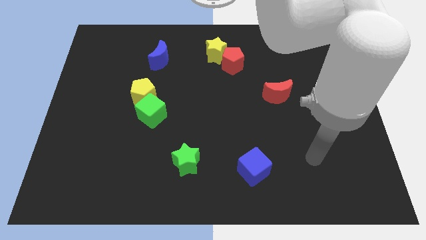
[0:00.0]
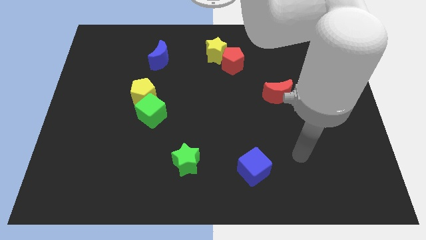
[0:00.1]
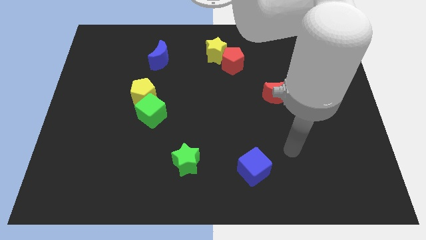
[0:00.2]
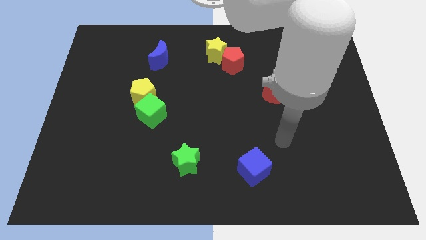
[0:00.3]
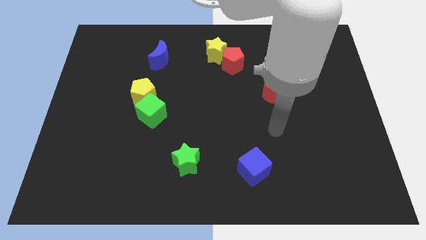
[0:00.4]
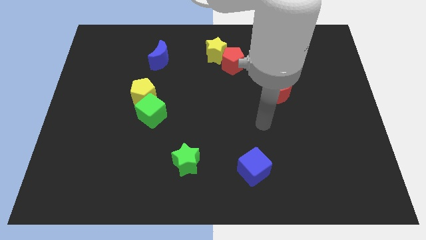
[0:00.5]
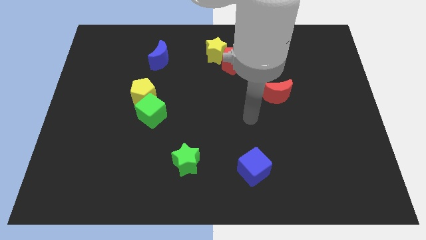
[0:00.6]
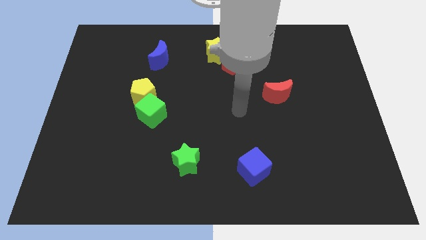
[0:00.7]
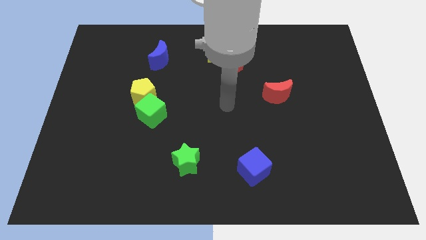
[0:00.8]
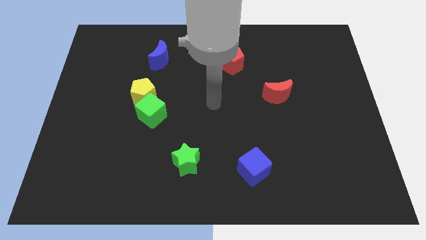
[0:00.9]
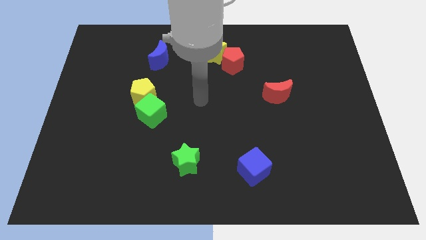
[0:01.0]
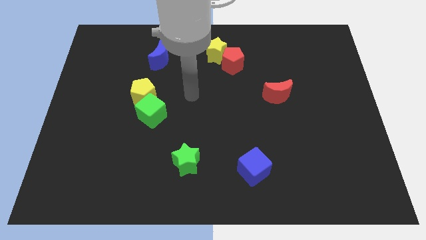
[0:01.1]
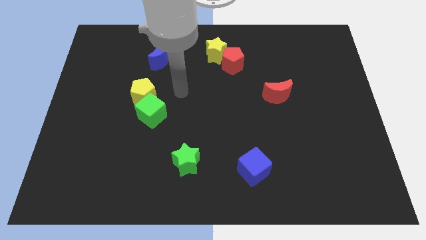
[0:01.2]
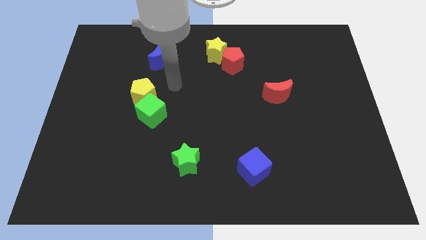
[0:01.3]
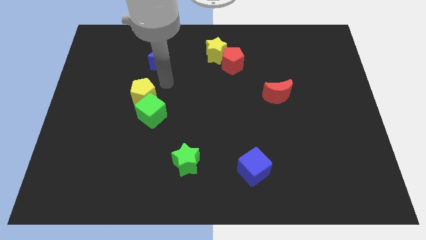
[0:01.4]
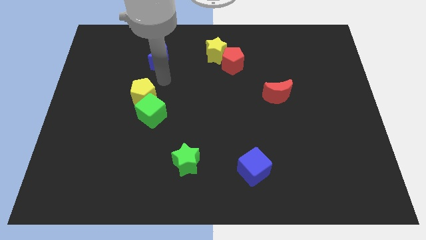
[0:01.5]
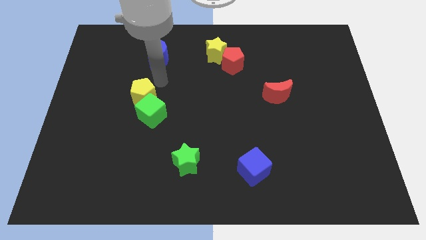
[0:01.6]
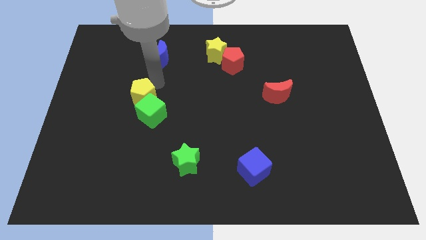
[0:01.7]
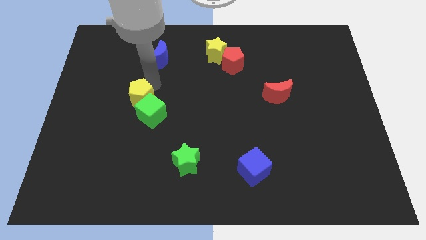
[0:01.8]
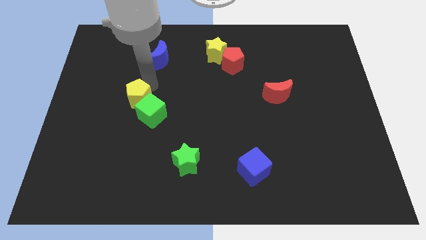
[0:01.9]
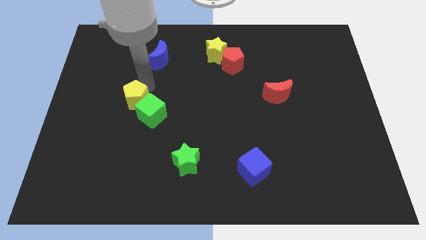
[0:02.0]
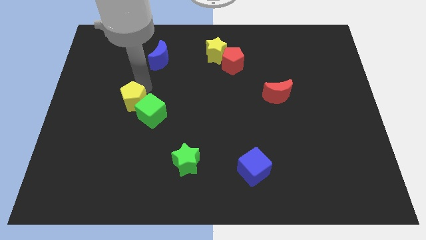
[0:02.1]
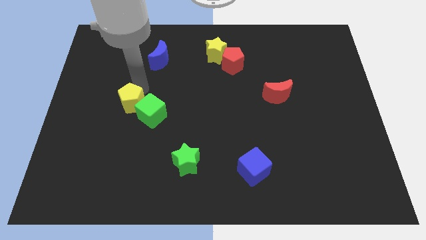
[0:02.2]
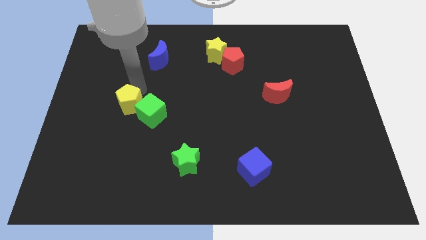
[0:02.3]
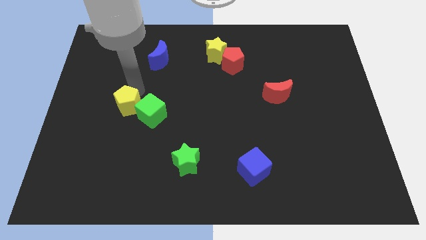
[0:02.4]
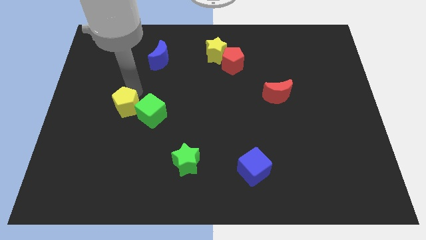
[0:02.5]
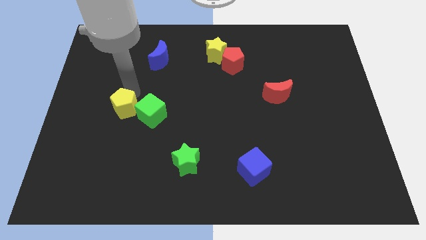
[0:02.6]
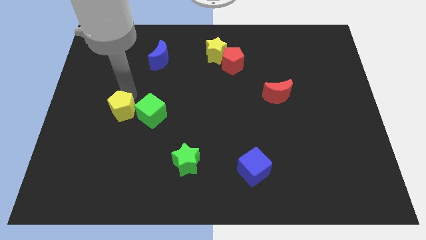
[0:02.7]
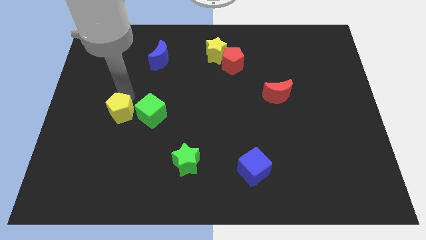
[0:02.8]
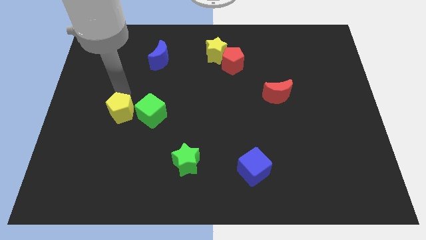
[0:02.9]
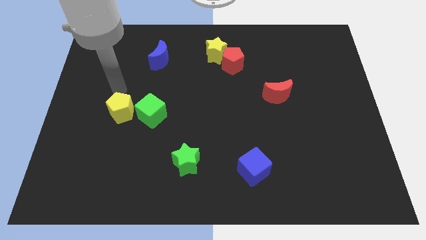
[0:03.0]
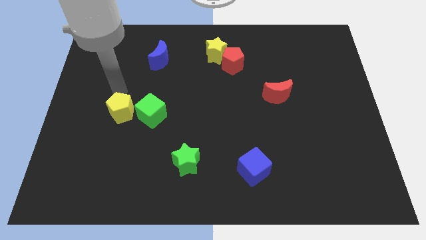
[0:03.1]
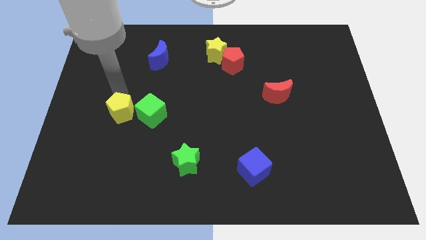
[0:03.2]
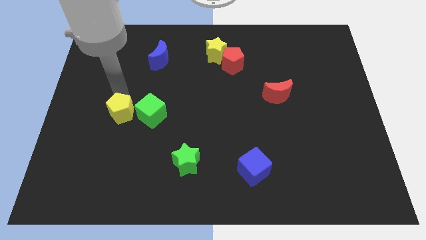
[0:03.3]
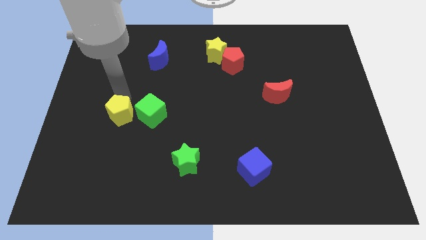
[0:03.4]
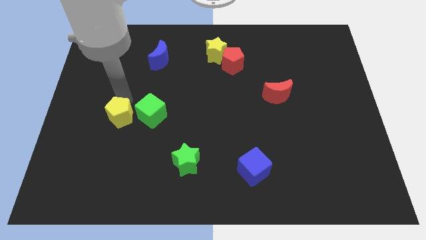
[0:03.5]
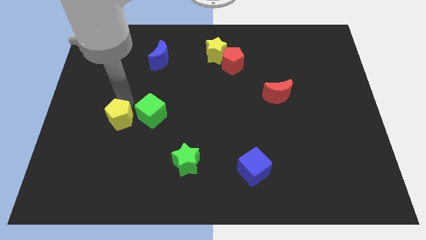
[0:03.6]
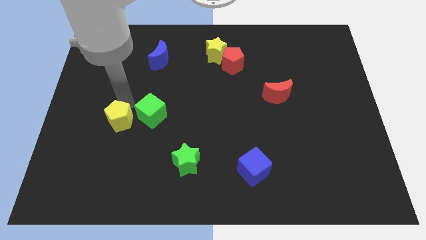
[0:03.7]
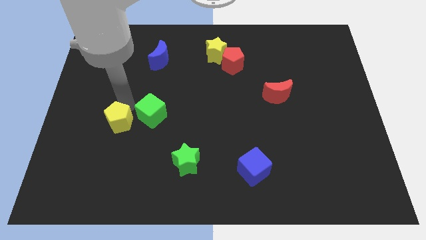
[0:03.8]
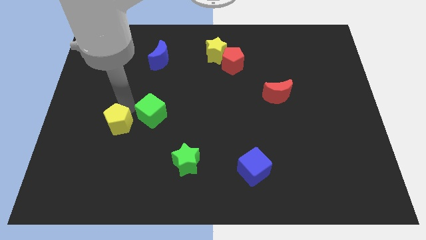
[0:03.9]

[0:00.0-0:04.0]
slightly push the yellow pentagon down

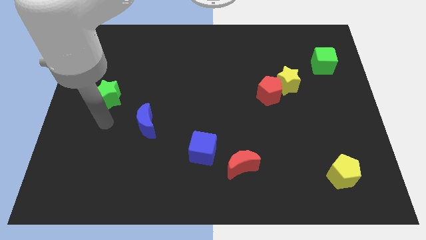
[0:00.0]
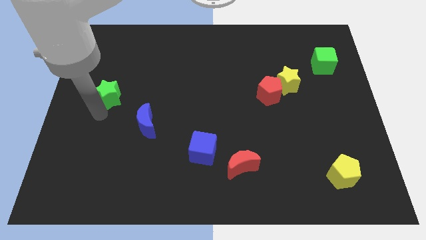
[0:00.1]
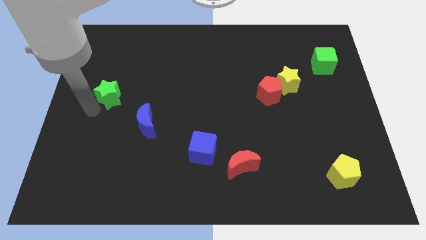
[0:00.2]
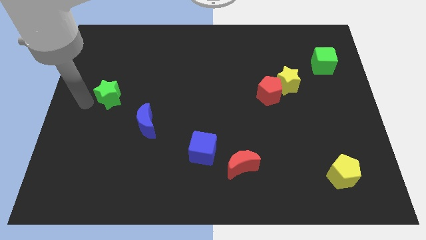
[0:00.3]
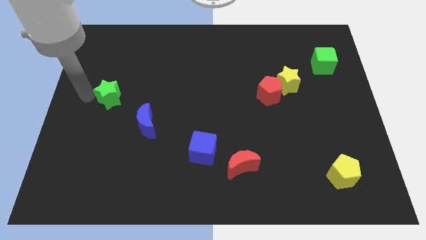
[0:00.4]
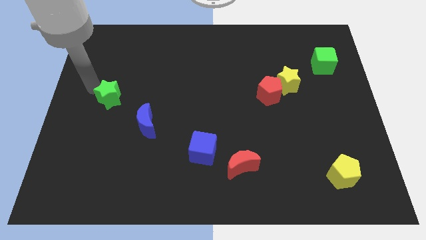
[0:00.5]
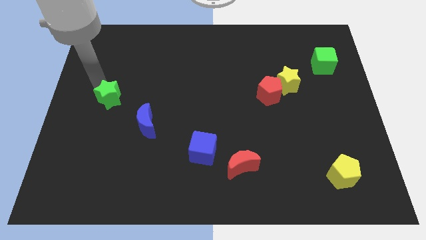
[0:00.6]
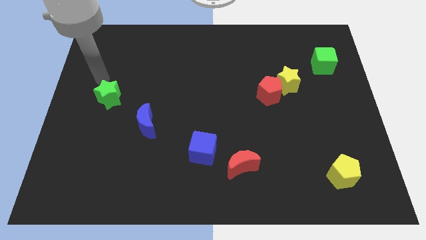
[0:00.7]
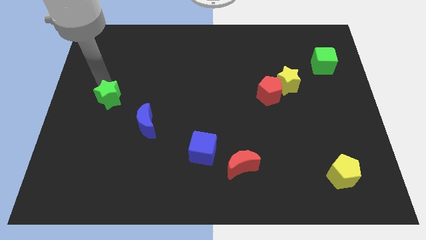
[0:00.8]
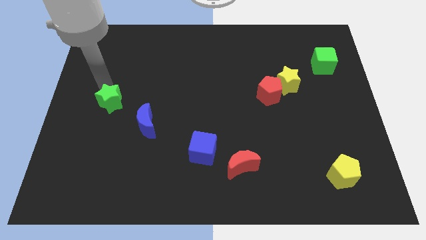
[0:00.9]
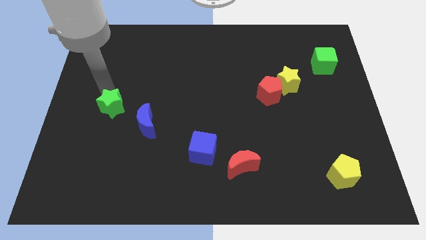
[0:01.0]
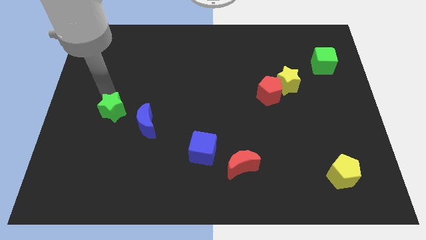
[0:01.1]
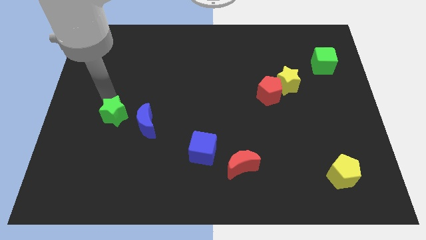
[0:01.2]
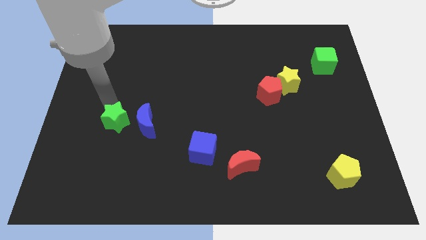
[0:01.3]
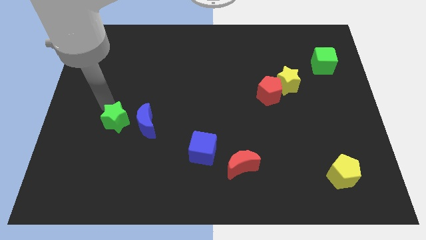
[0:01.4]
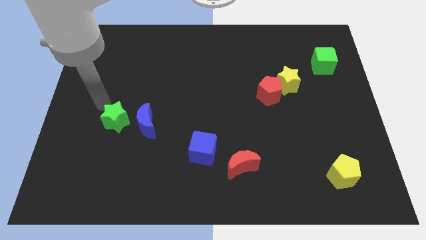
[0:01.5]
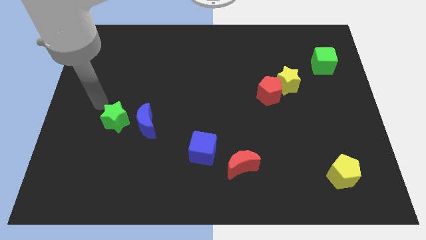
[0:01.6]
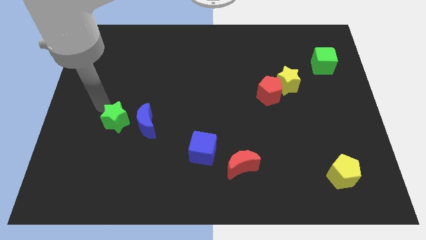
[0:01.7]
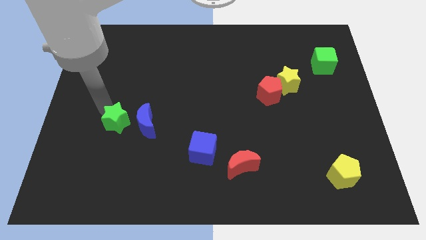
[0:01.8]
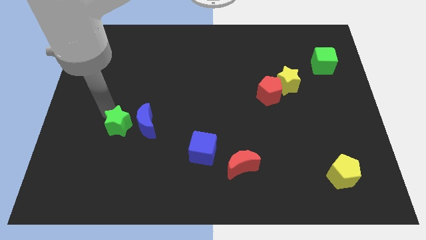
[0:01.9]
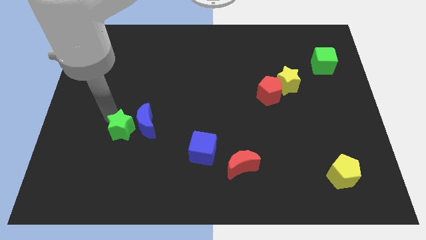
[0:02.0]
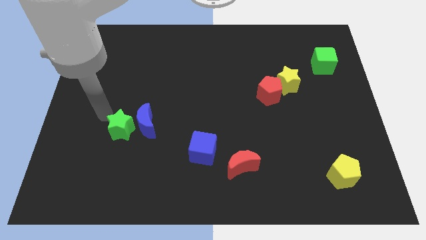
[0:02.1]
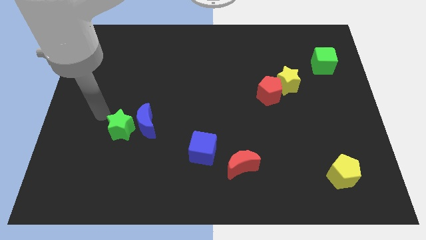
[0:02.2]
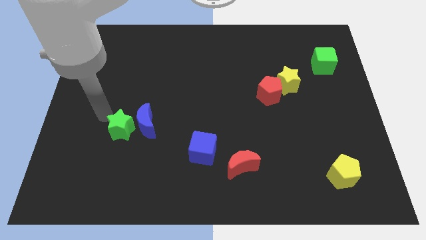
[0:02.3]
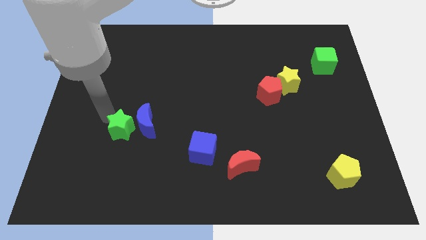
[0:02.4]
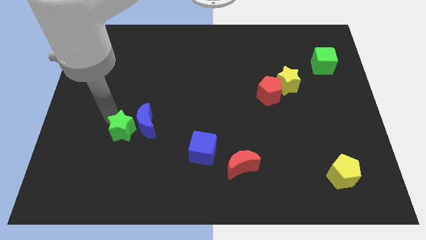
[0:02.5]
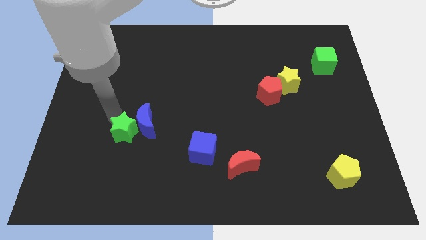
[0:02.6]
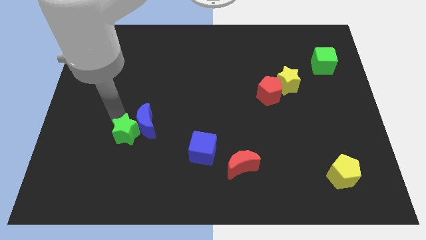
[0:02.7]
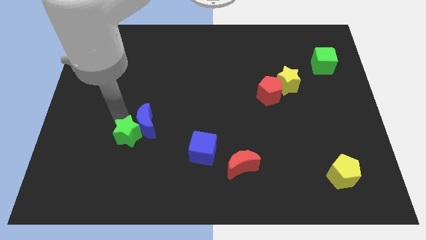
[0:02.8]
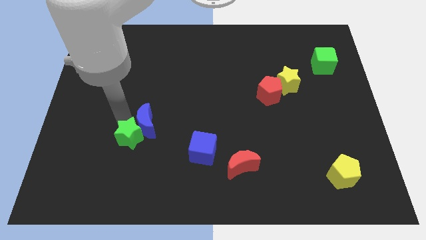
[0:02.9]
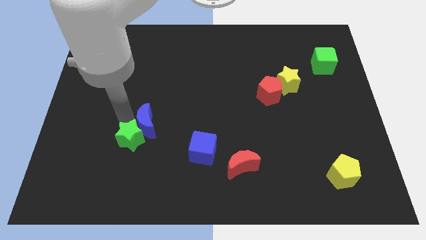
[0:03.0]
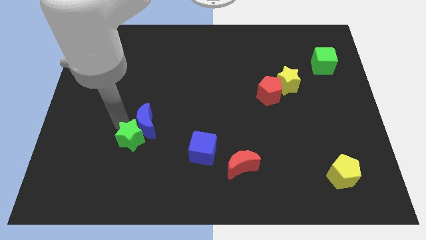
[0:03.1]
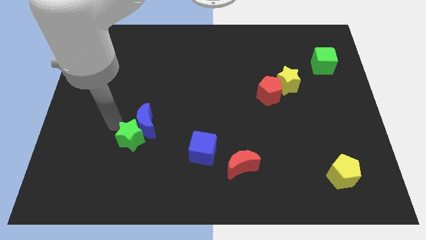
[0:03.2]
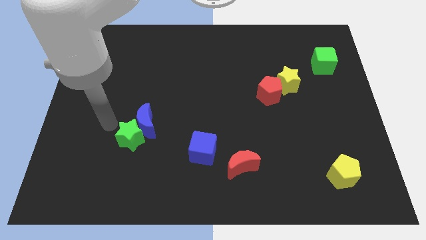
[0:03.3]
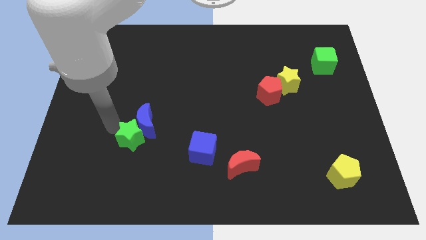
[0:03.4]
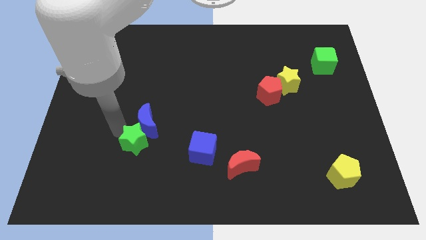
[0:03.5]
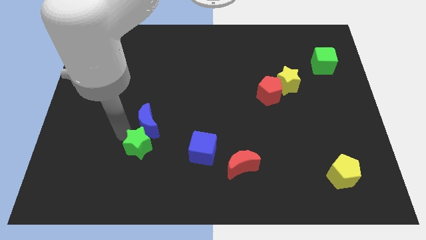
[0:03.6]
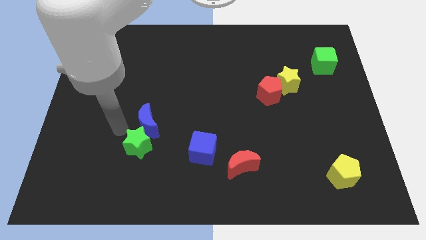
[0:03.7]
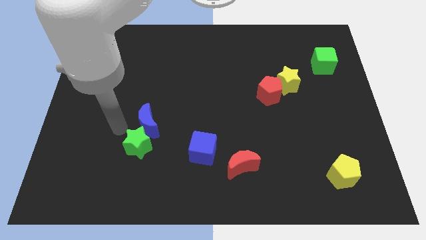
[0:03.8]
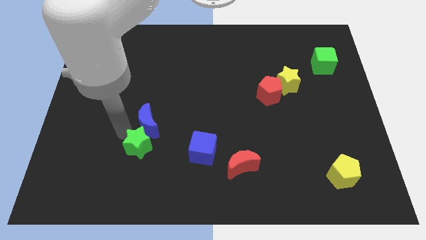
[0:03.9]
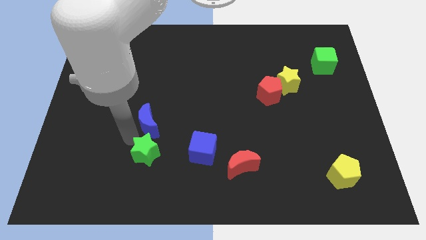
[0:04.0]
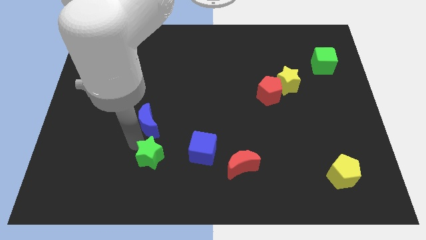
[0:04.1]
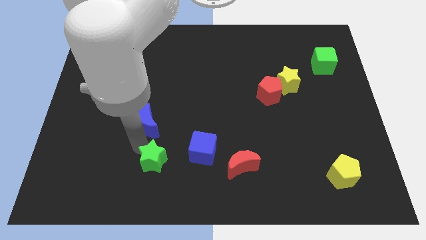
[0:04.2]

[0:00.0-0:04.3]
move the green star down and right diagonally
